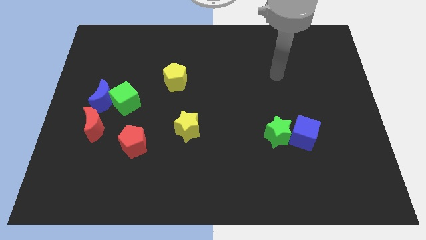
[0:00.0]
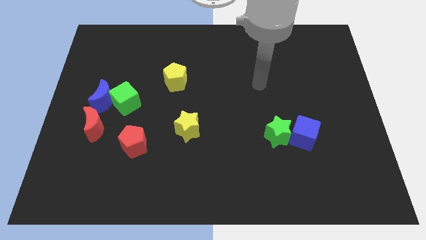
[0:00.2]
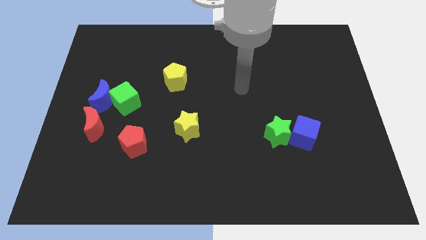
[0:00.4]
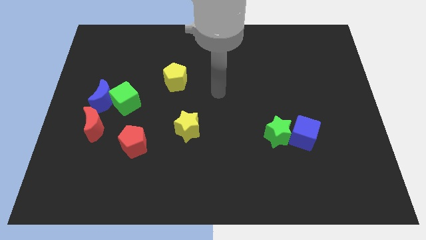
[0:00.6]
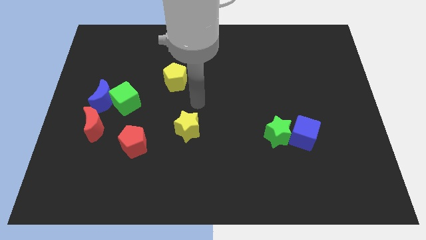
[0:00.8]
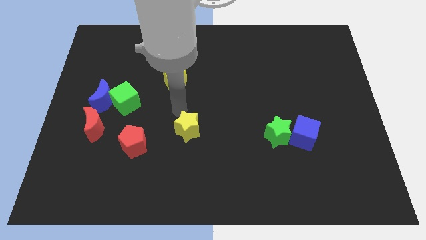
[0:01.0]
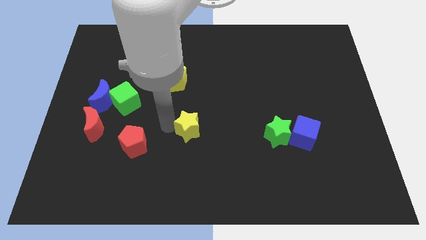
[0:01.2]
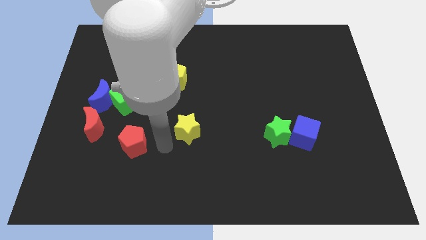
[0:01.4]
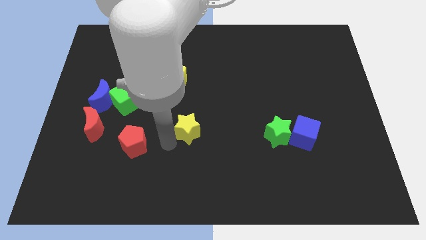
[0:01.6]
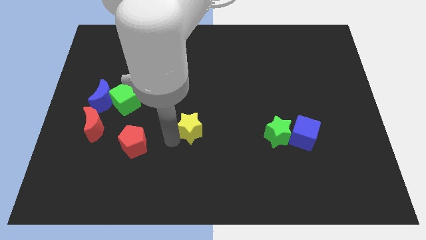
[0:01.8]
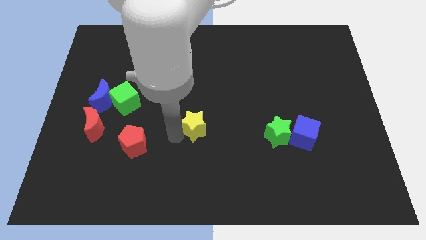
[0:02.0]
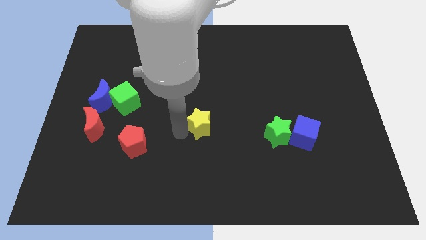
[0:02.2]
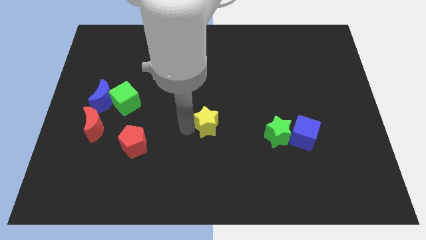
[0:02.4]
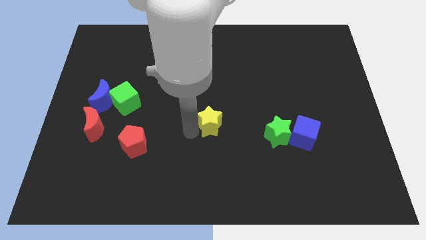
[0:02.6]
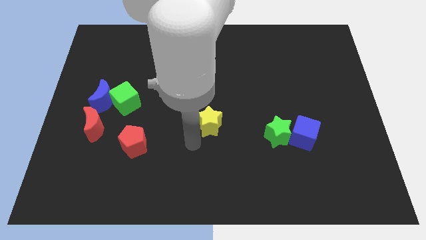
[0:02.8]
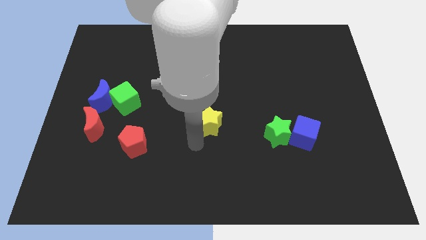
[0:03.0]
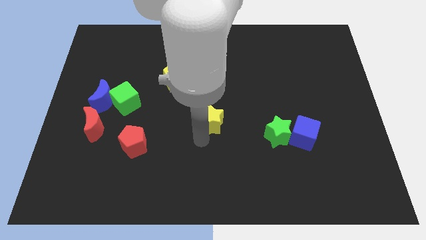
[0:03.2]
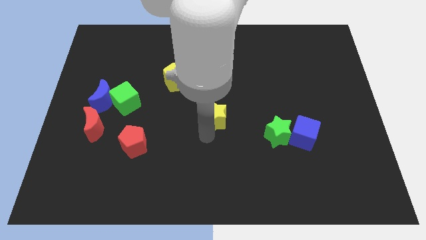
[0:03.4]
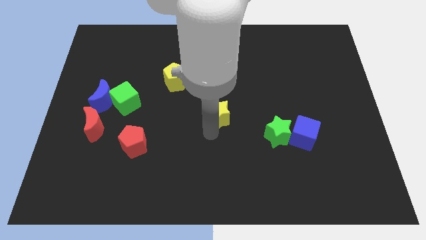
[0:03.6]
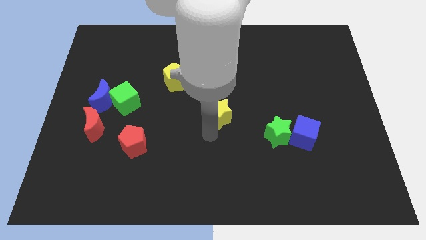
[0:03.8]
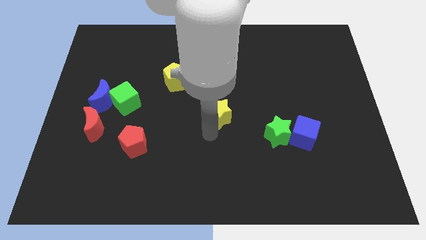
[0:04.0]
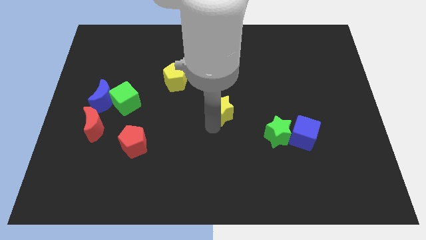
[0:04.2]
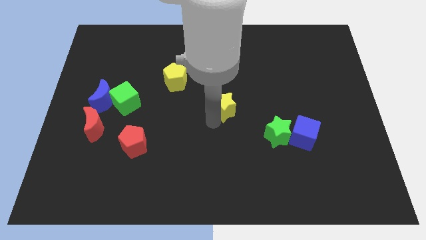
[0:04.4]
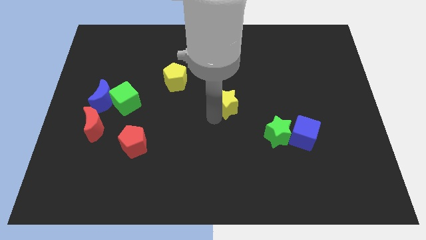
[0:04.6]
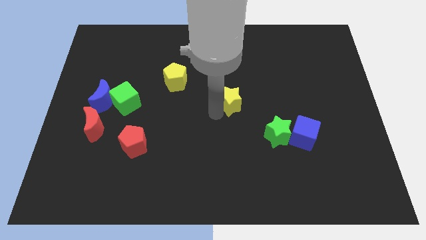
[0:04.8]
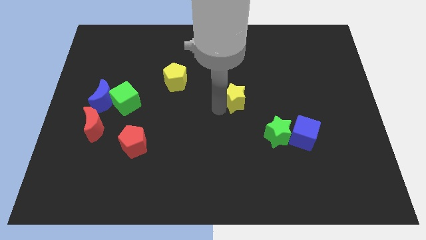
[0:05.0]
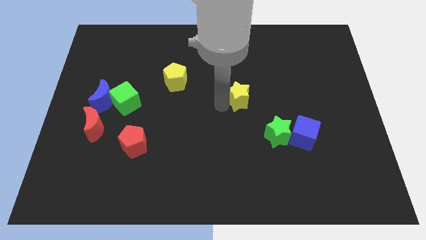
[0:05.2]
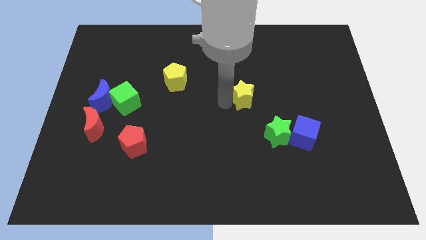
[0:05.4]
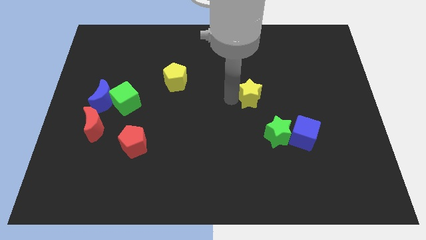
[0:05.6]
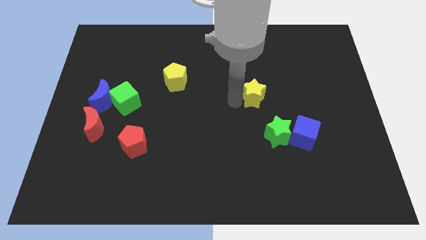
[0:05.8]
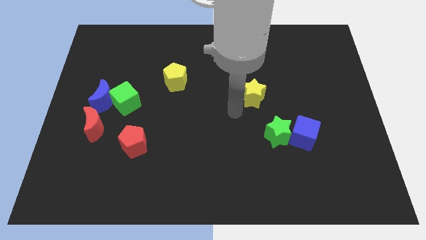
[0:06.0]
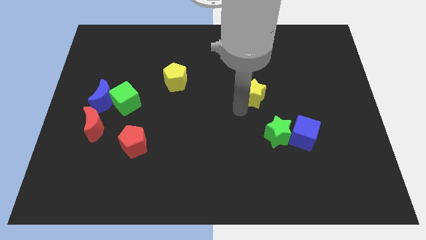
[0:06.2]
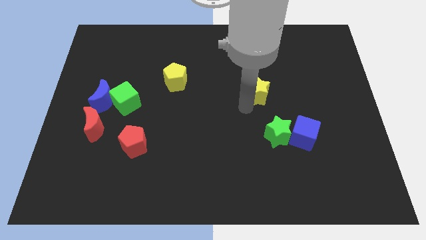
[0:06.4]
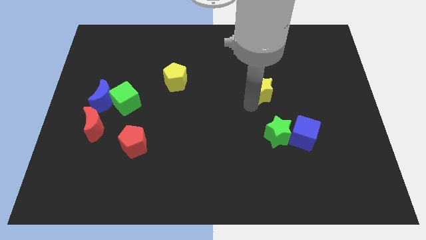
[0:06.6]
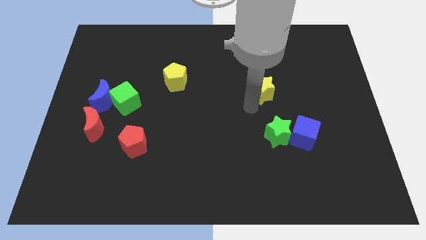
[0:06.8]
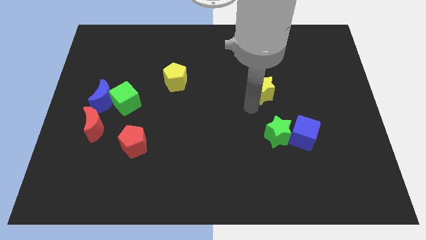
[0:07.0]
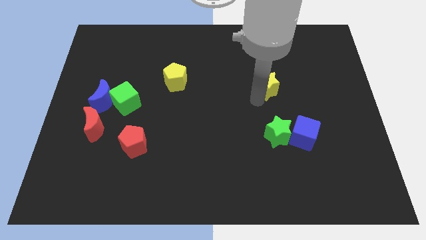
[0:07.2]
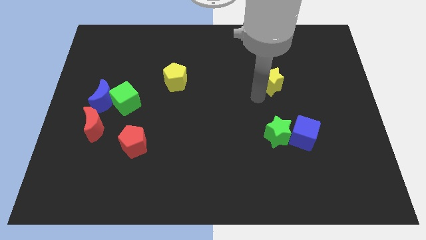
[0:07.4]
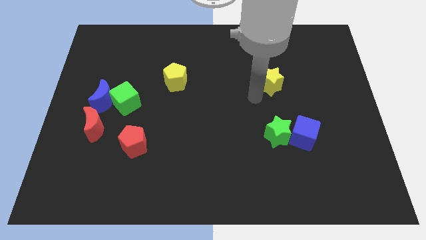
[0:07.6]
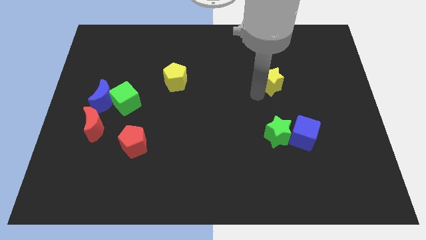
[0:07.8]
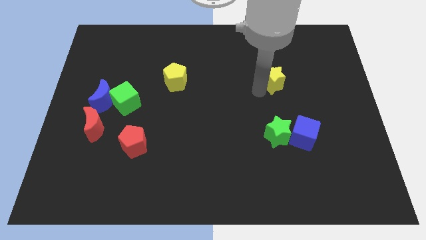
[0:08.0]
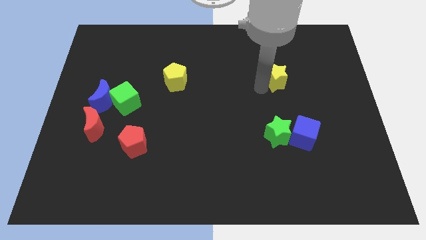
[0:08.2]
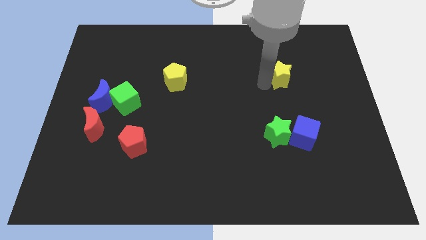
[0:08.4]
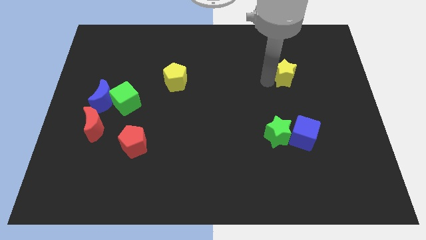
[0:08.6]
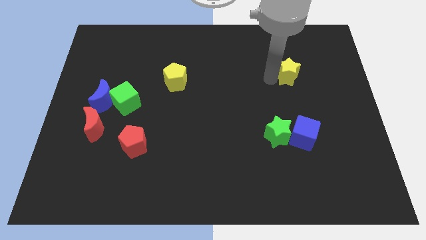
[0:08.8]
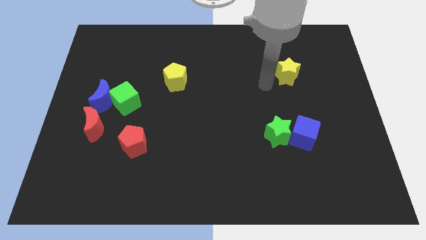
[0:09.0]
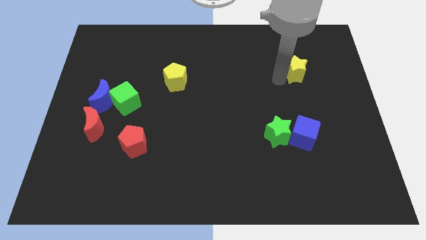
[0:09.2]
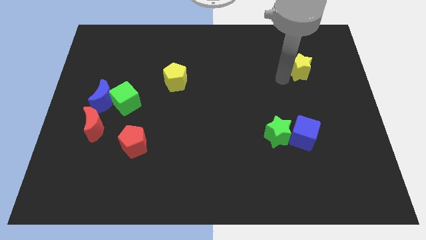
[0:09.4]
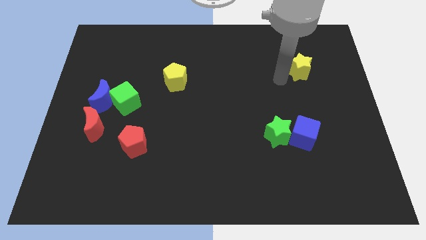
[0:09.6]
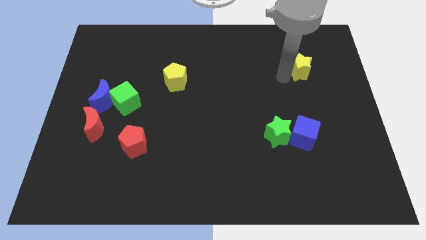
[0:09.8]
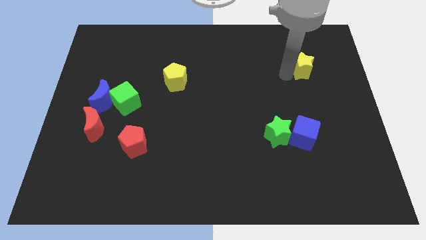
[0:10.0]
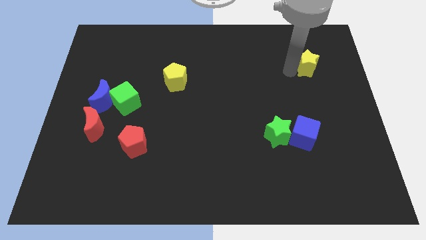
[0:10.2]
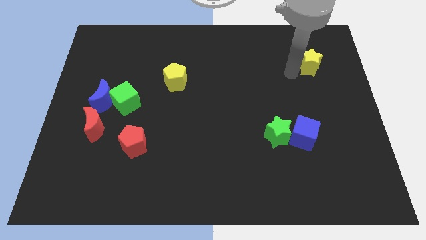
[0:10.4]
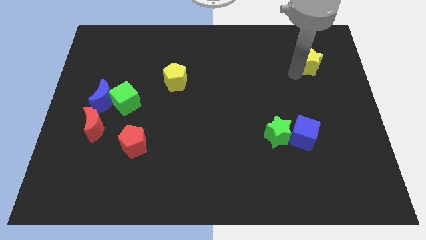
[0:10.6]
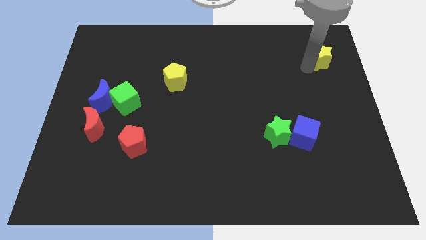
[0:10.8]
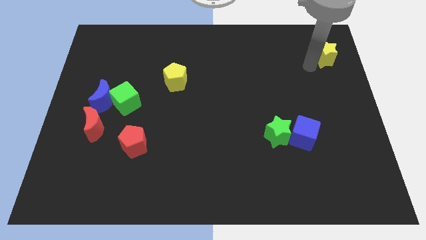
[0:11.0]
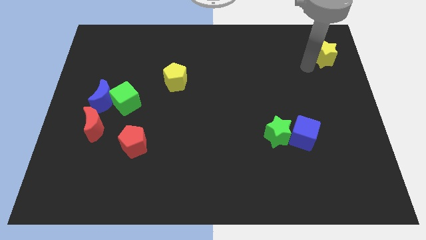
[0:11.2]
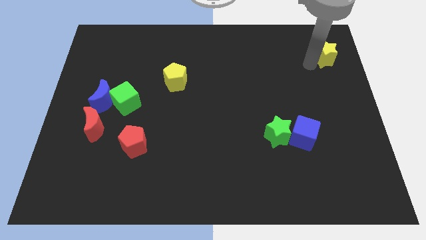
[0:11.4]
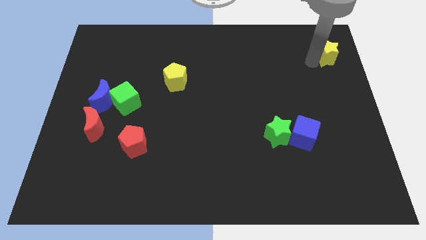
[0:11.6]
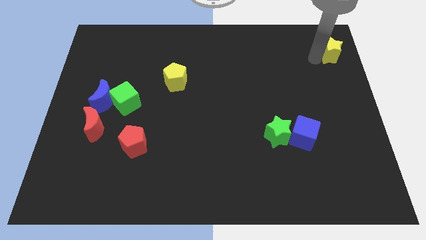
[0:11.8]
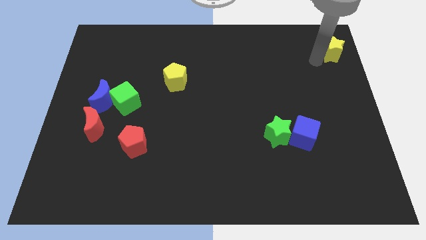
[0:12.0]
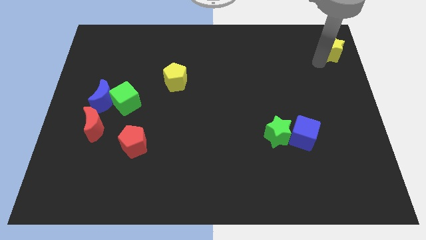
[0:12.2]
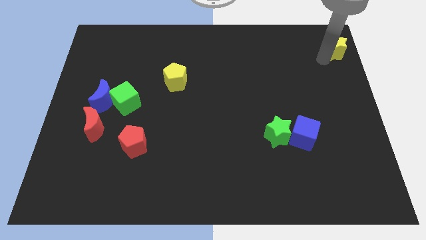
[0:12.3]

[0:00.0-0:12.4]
put the yellow star to the top right corner
